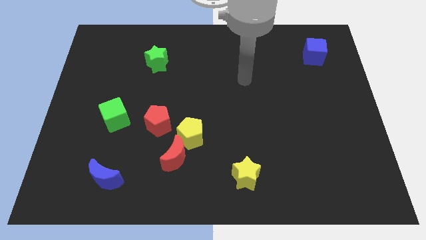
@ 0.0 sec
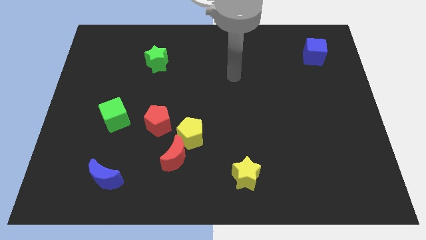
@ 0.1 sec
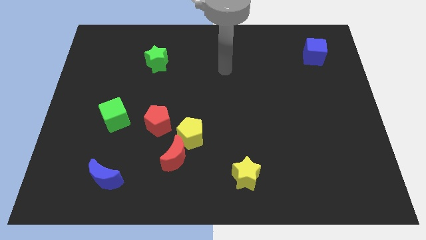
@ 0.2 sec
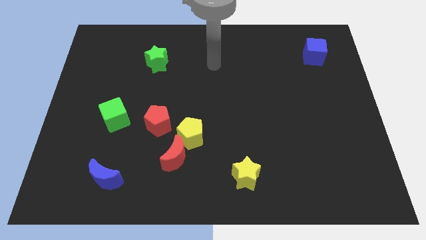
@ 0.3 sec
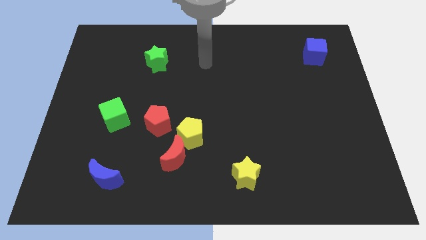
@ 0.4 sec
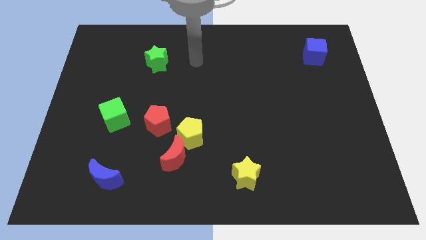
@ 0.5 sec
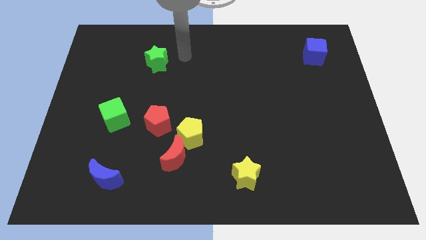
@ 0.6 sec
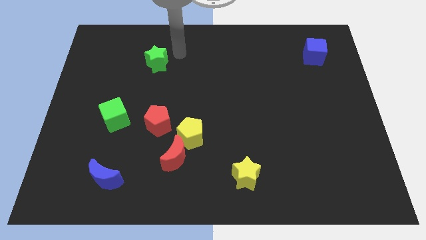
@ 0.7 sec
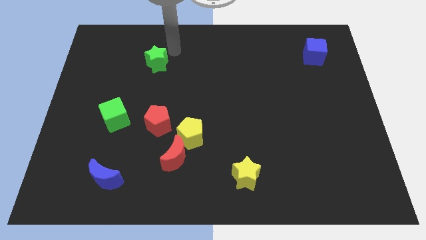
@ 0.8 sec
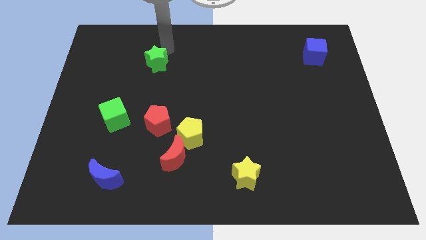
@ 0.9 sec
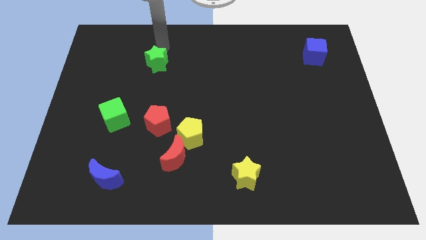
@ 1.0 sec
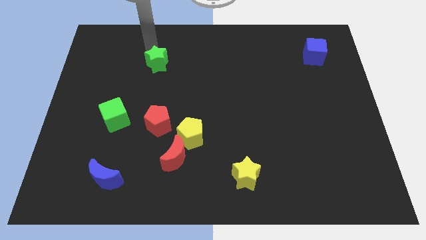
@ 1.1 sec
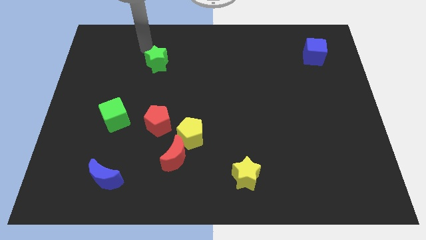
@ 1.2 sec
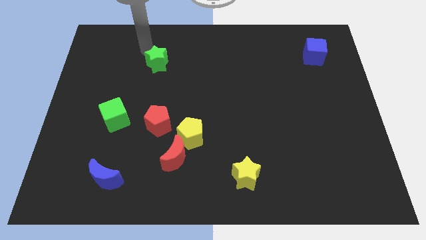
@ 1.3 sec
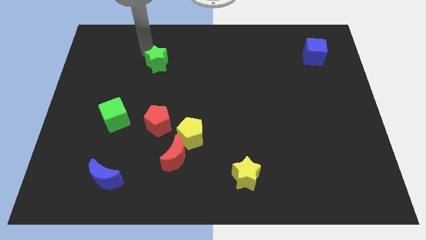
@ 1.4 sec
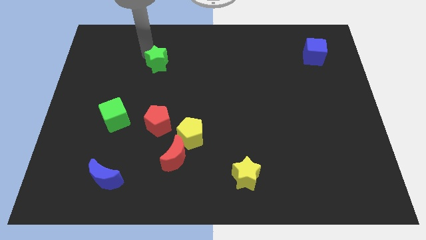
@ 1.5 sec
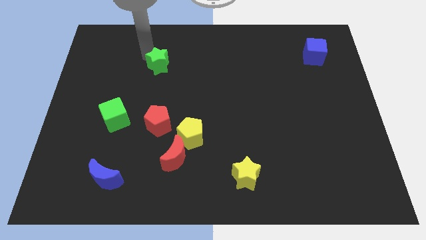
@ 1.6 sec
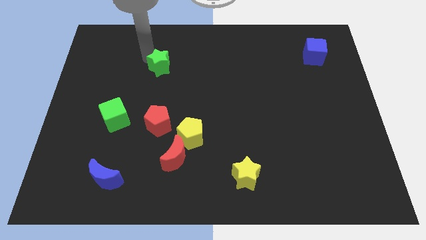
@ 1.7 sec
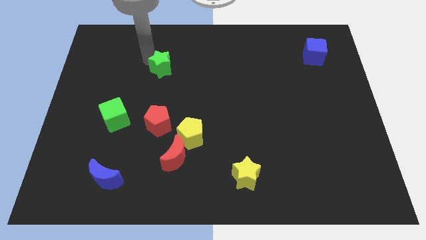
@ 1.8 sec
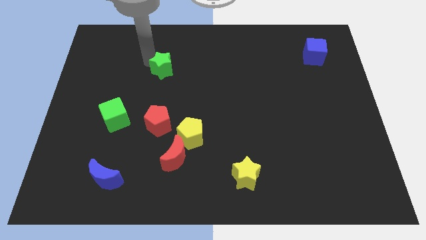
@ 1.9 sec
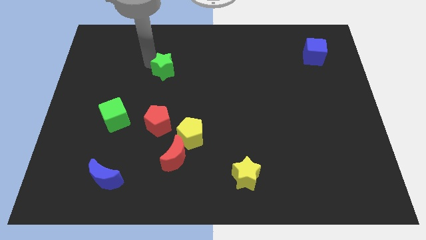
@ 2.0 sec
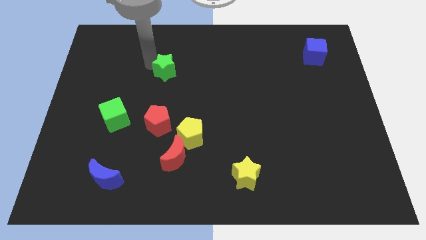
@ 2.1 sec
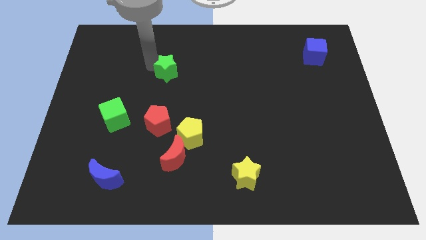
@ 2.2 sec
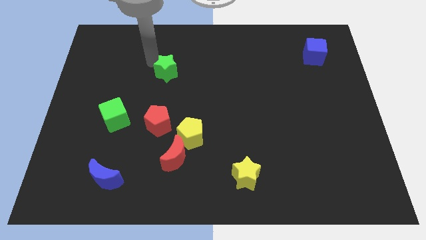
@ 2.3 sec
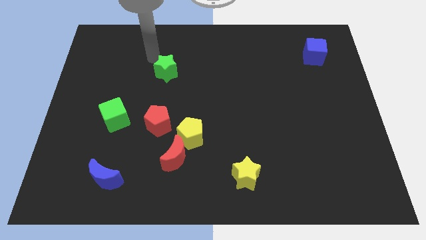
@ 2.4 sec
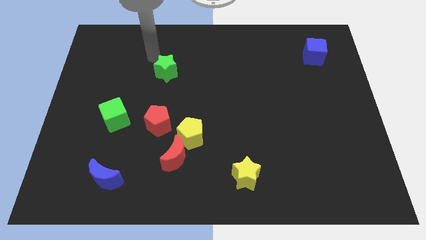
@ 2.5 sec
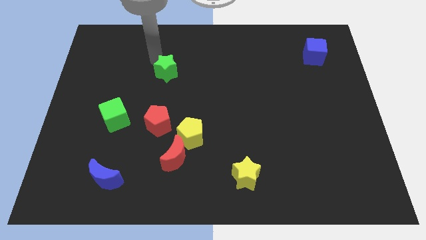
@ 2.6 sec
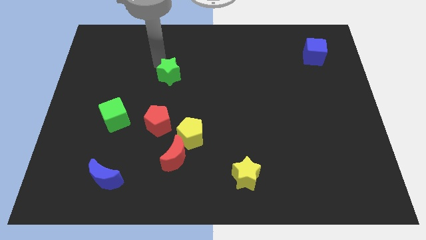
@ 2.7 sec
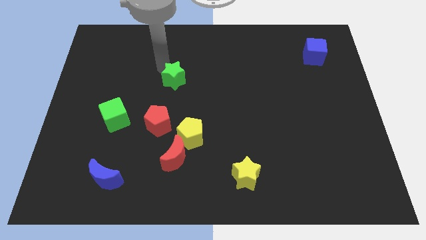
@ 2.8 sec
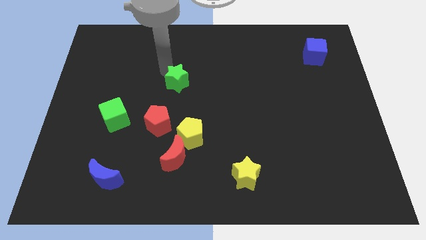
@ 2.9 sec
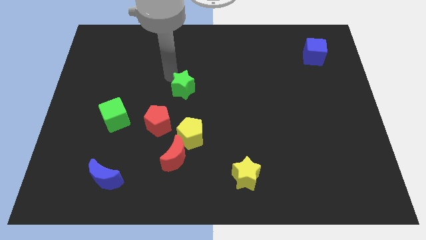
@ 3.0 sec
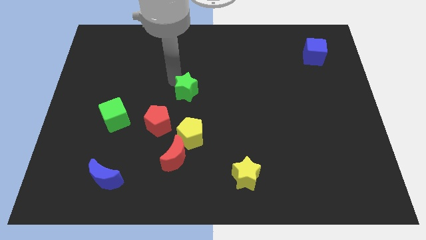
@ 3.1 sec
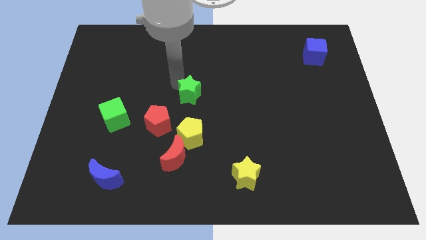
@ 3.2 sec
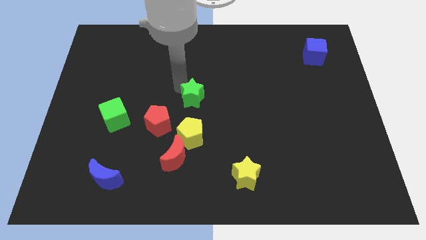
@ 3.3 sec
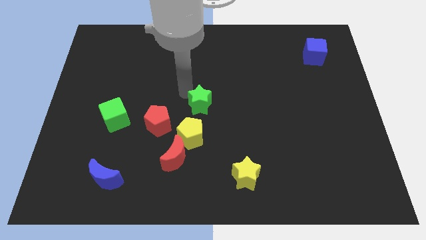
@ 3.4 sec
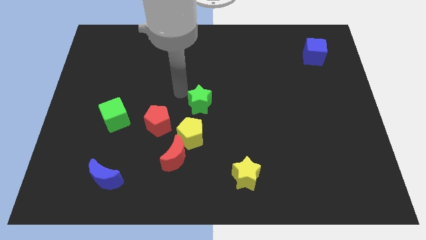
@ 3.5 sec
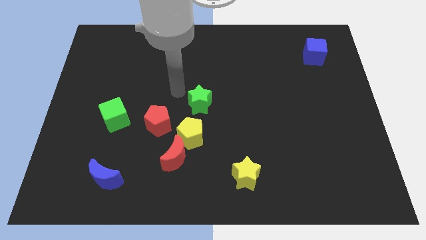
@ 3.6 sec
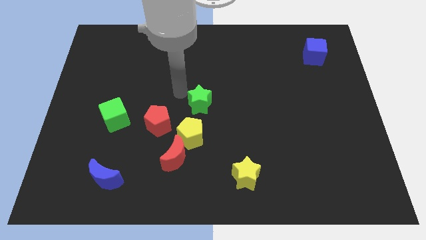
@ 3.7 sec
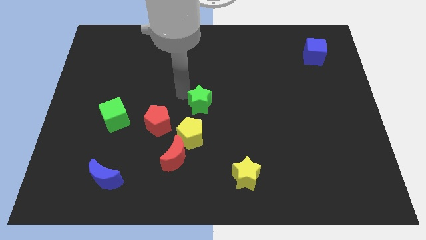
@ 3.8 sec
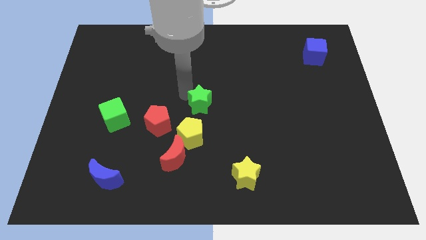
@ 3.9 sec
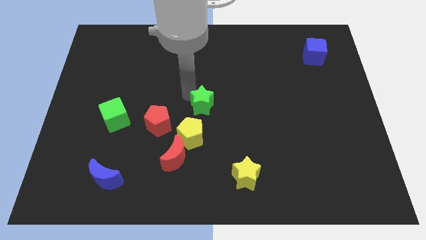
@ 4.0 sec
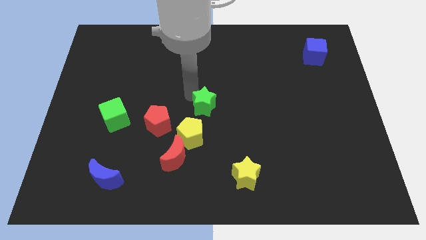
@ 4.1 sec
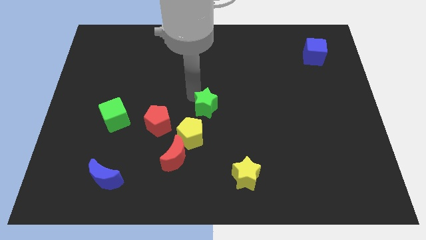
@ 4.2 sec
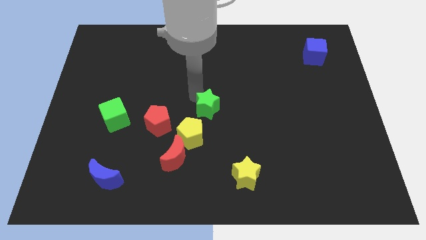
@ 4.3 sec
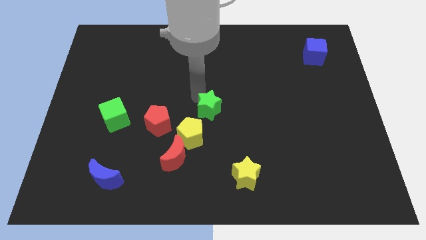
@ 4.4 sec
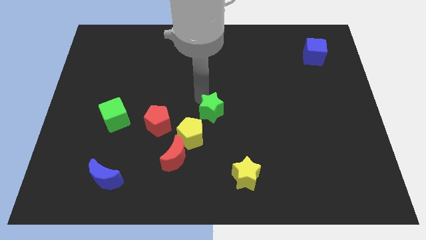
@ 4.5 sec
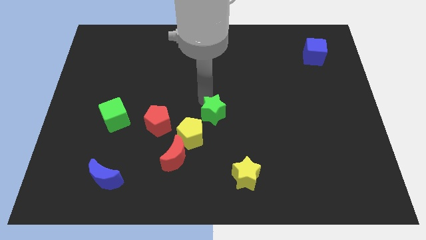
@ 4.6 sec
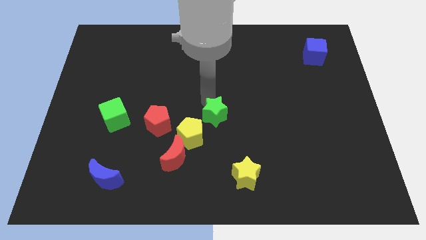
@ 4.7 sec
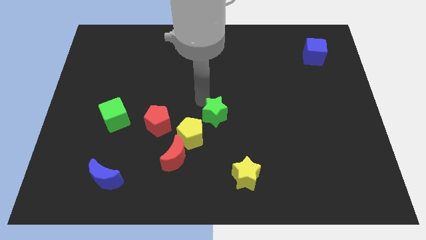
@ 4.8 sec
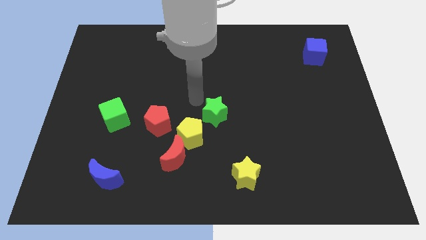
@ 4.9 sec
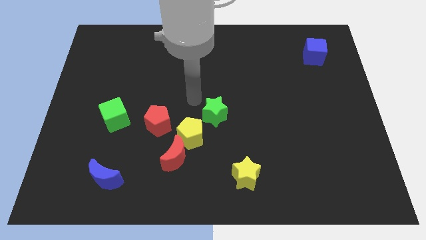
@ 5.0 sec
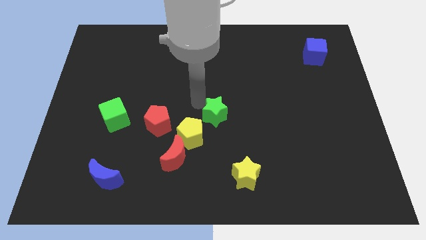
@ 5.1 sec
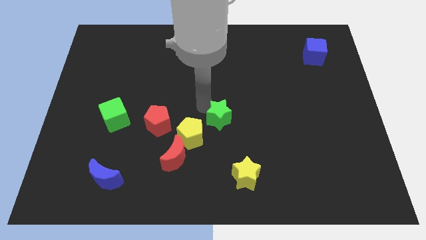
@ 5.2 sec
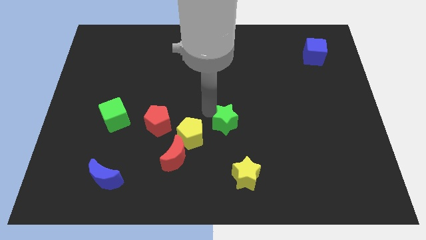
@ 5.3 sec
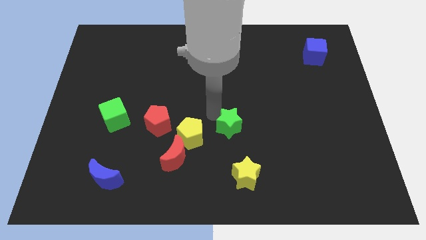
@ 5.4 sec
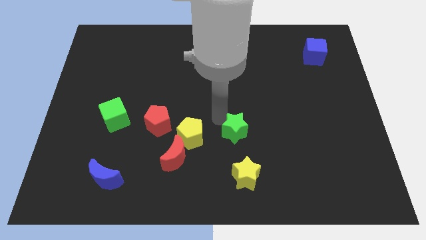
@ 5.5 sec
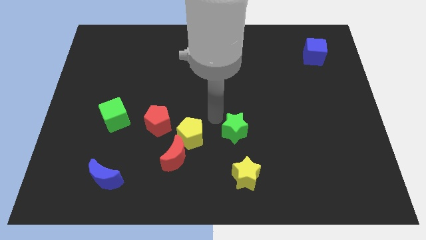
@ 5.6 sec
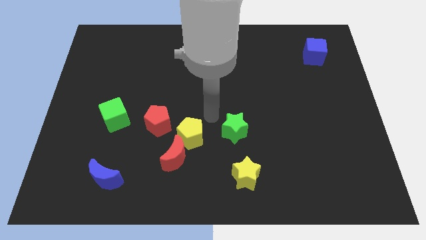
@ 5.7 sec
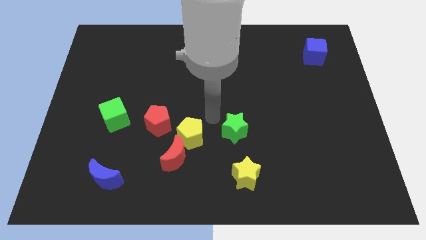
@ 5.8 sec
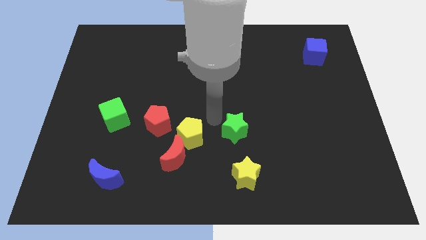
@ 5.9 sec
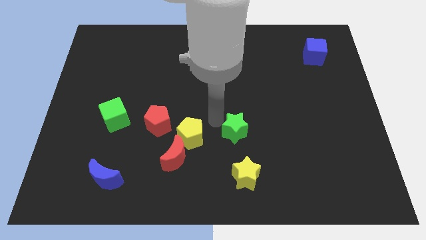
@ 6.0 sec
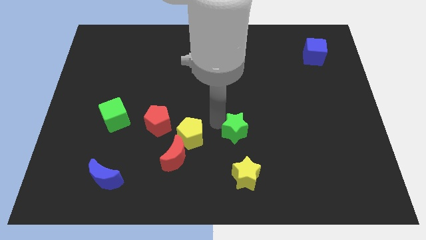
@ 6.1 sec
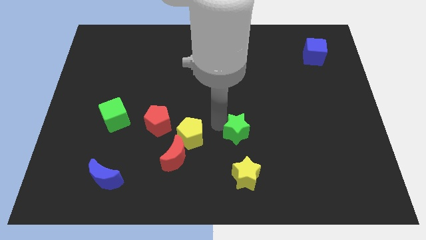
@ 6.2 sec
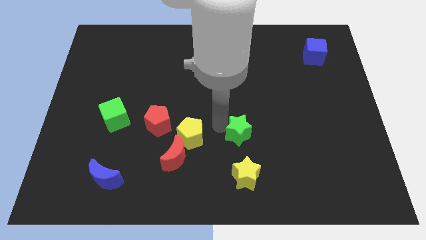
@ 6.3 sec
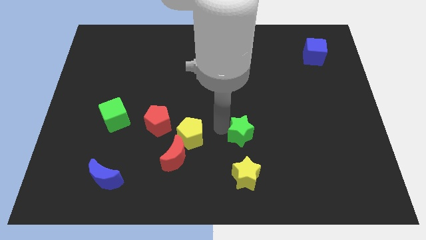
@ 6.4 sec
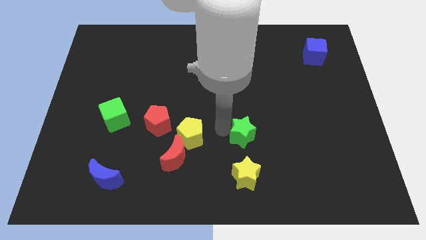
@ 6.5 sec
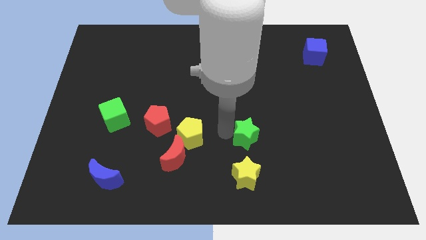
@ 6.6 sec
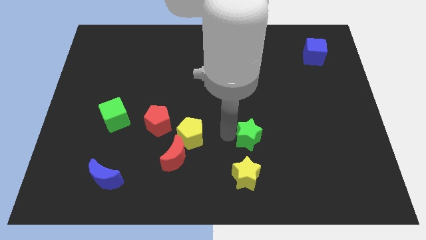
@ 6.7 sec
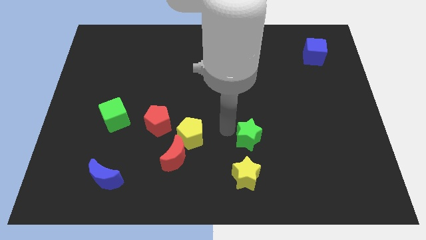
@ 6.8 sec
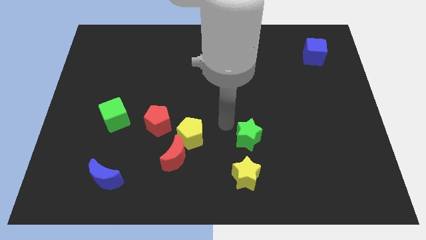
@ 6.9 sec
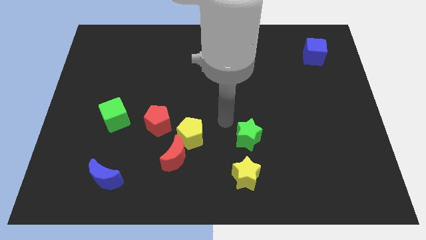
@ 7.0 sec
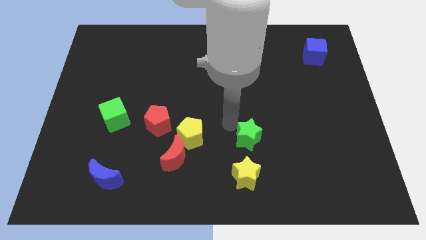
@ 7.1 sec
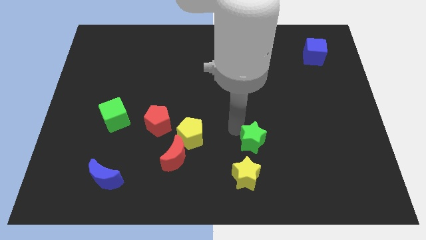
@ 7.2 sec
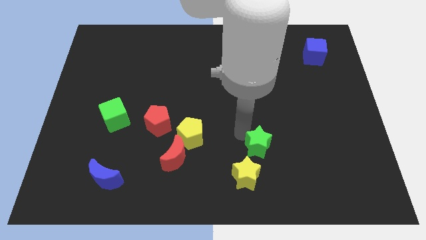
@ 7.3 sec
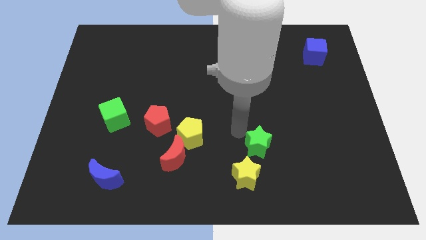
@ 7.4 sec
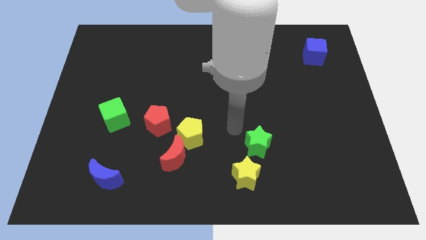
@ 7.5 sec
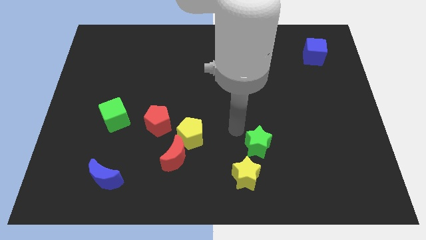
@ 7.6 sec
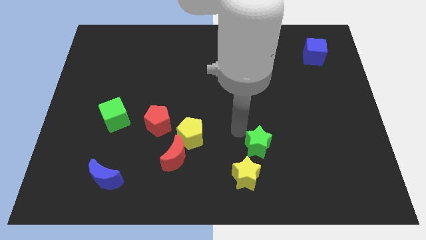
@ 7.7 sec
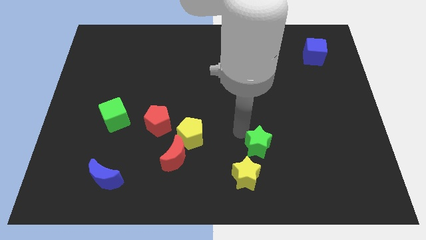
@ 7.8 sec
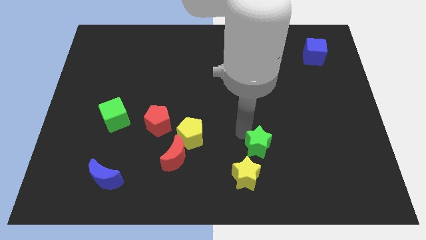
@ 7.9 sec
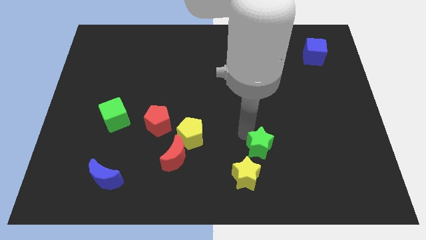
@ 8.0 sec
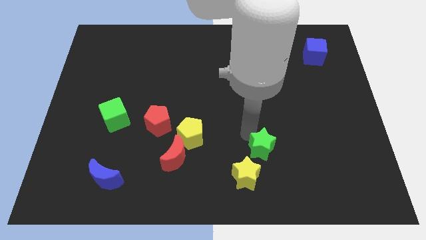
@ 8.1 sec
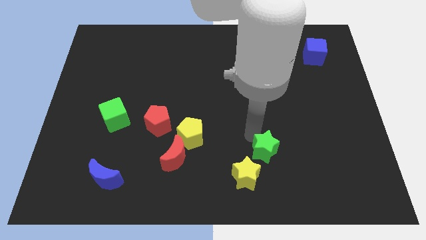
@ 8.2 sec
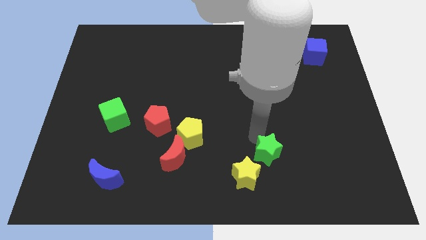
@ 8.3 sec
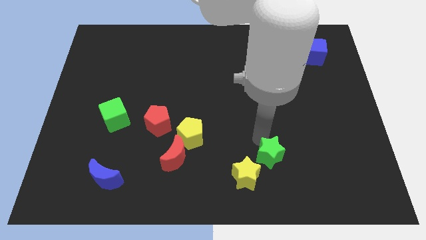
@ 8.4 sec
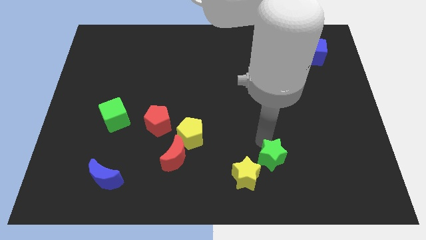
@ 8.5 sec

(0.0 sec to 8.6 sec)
push the green star just right of the yellow star
